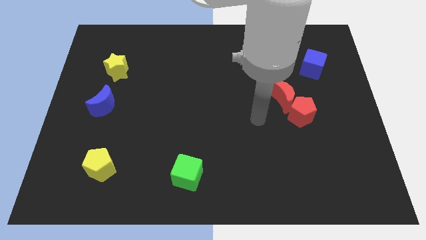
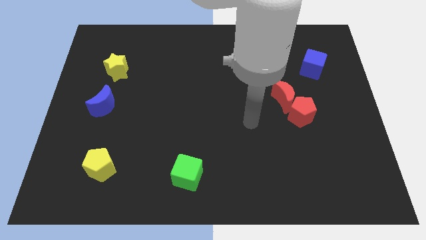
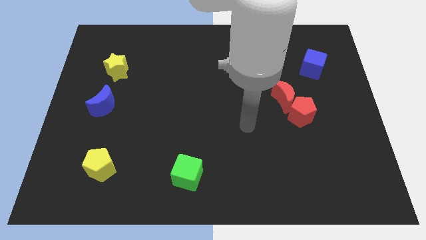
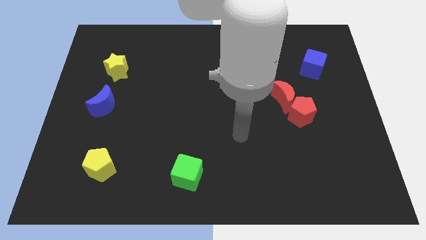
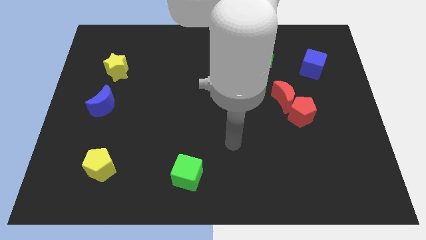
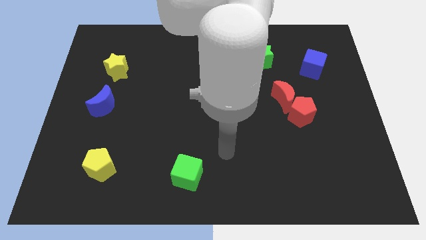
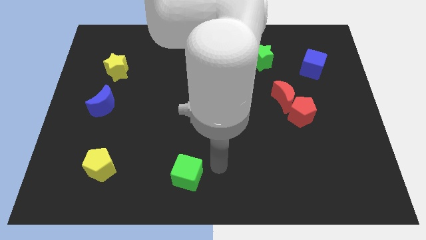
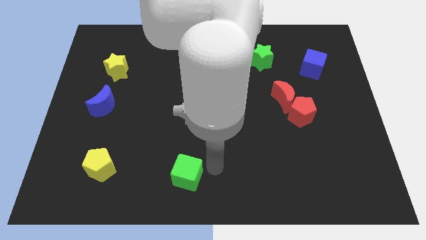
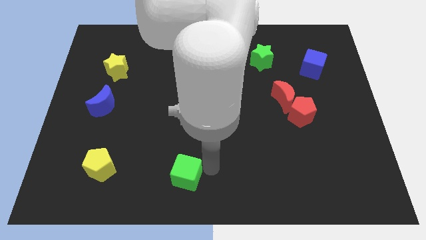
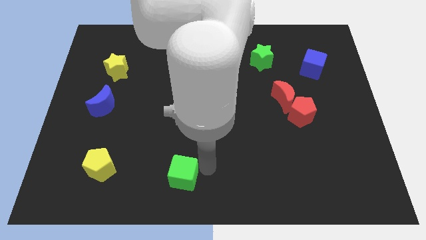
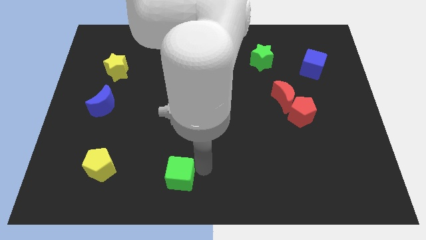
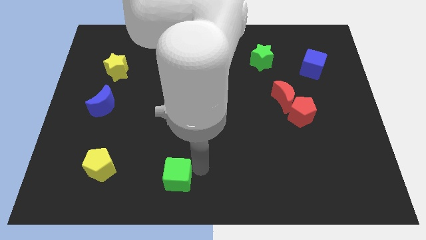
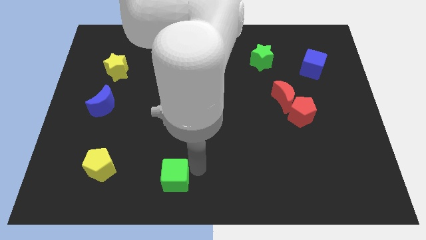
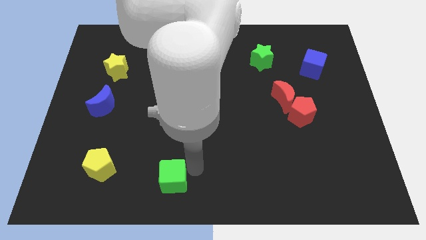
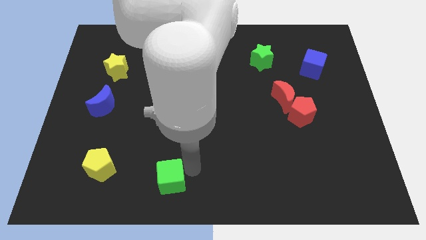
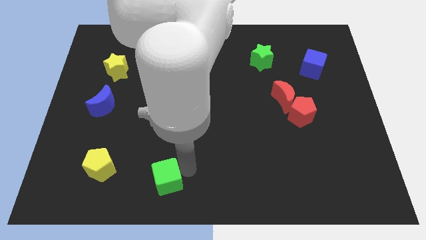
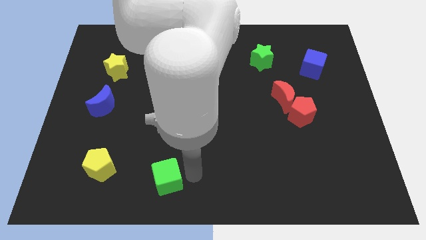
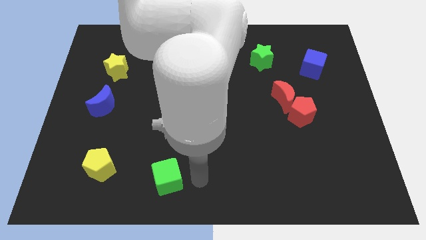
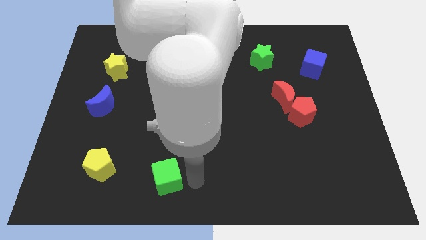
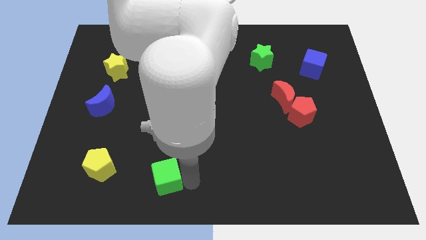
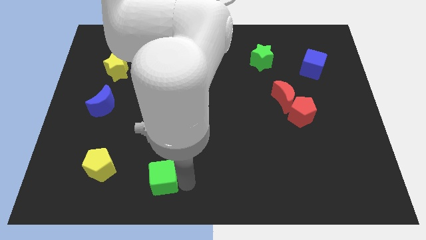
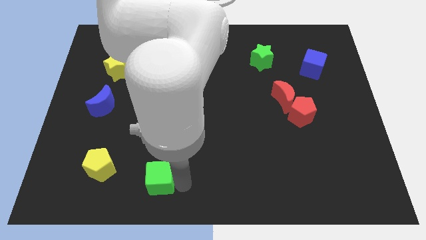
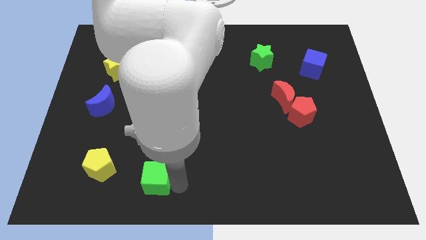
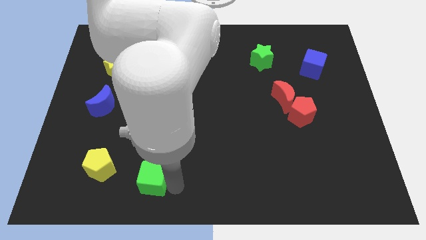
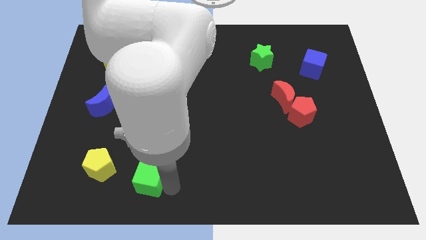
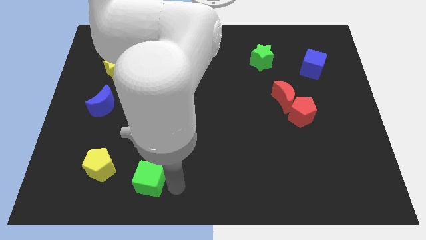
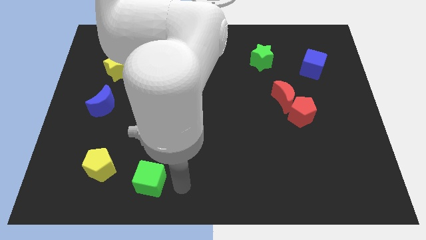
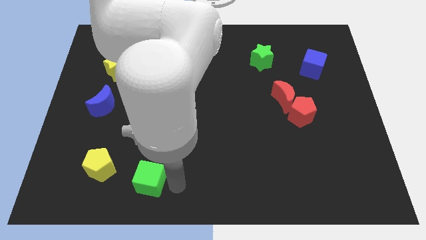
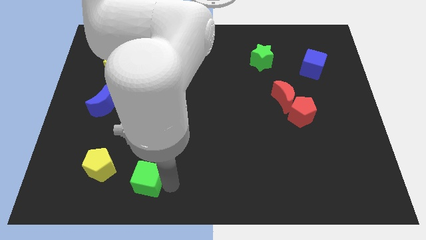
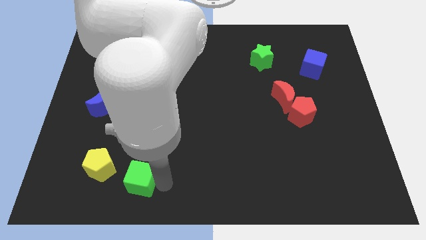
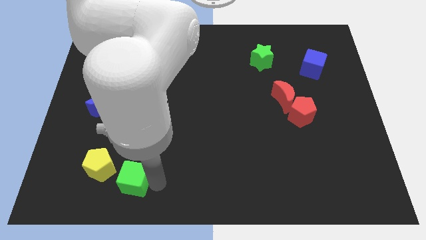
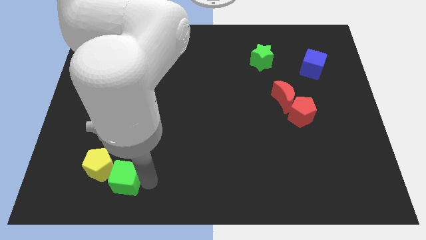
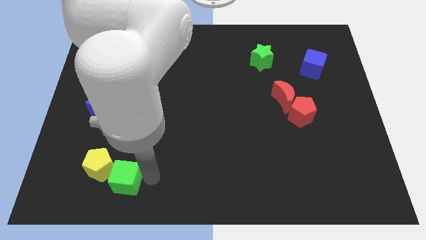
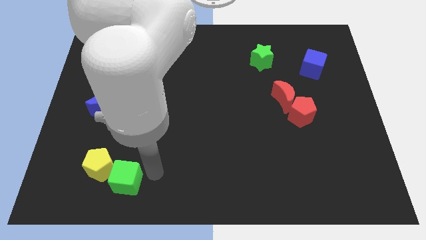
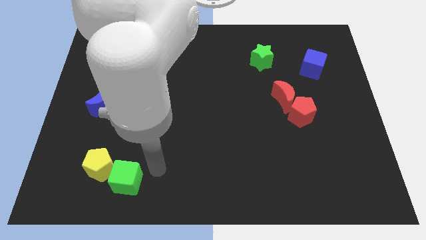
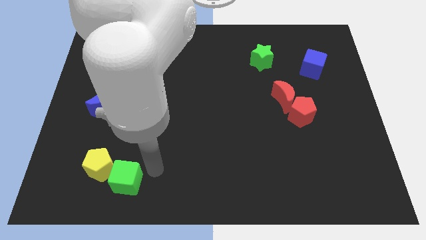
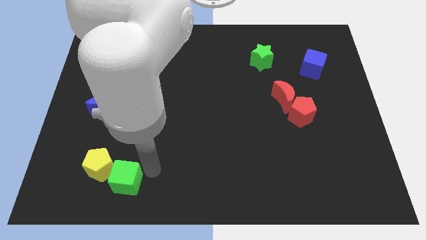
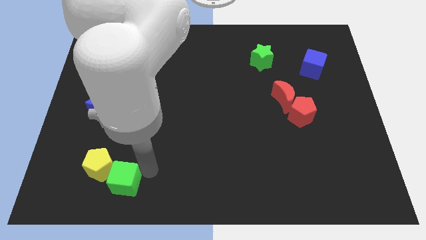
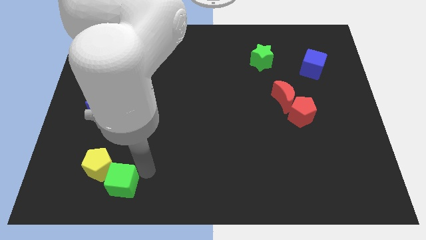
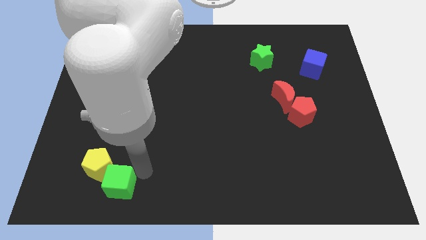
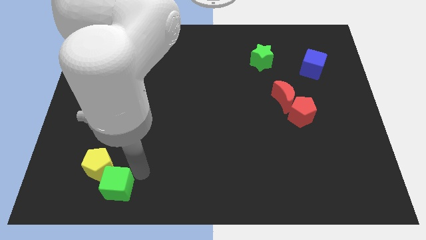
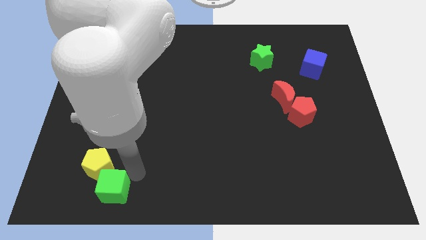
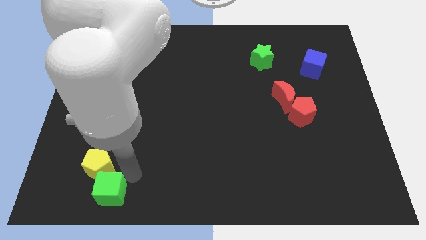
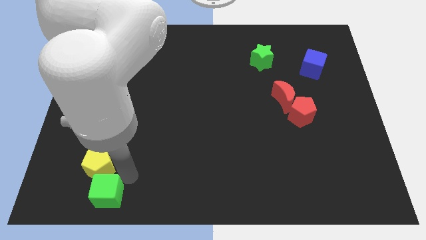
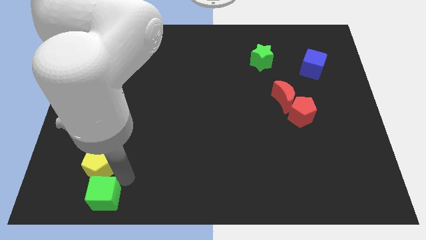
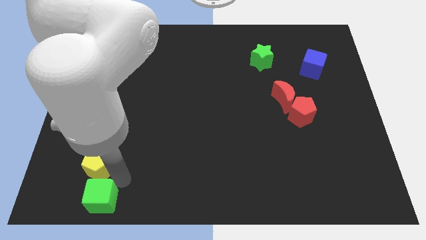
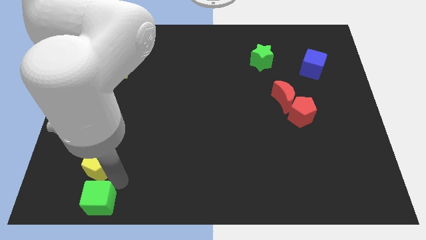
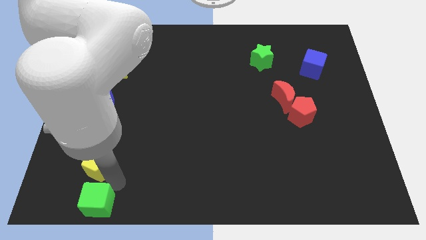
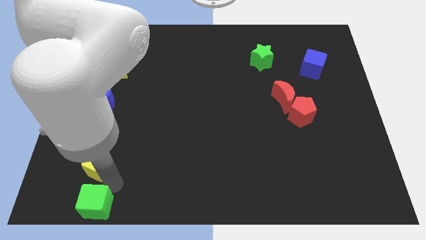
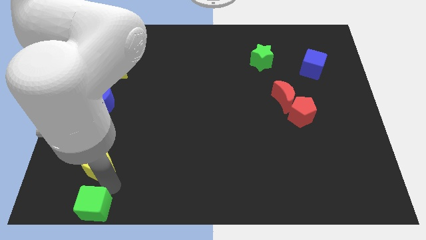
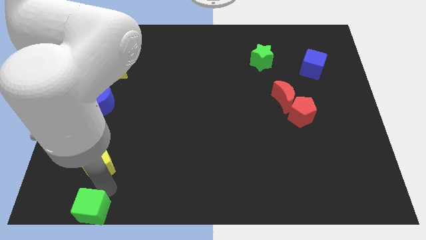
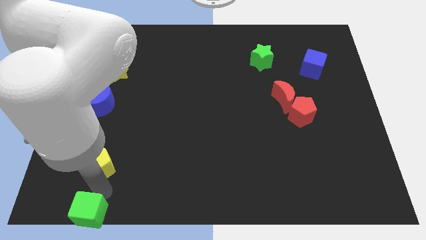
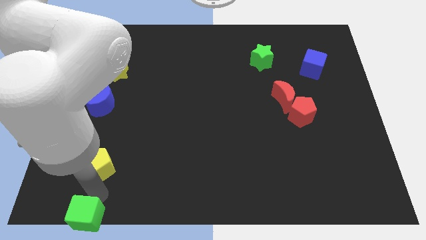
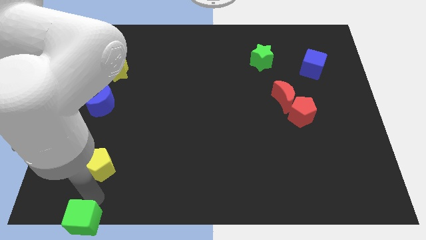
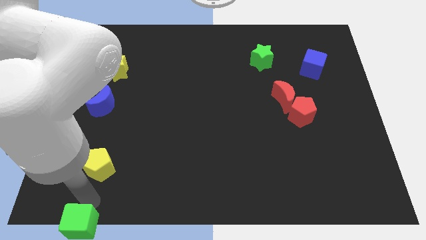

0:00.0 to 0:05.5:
move the green cube to the lower left corner

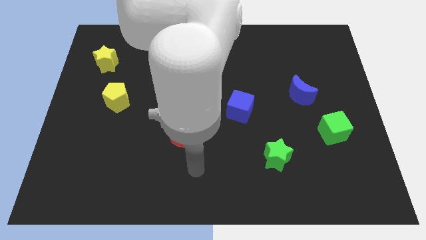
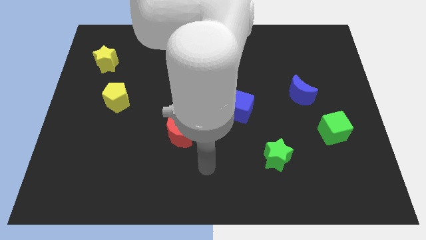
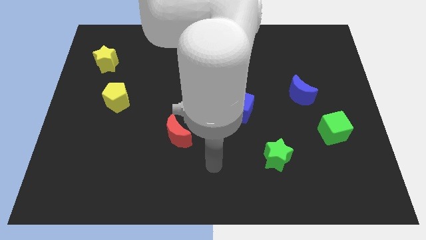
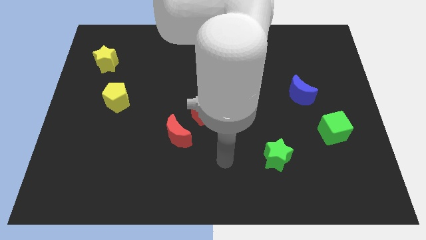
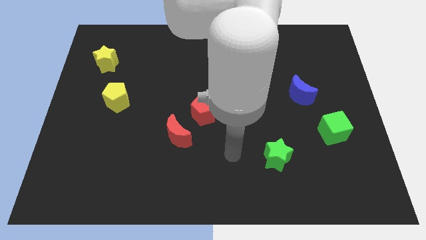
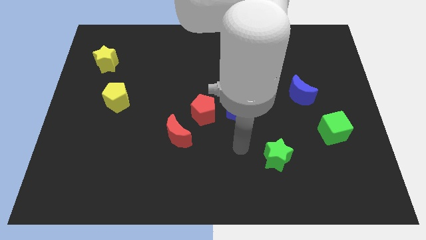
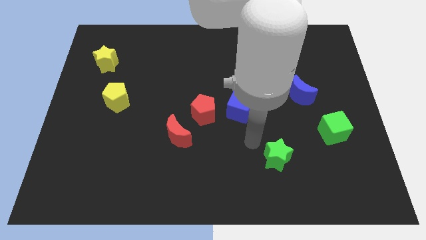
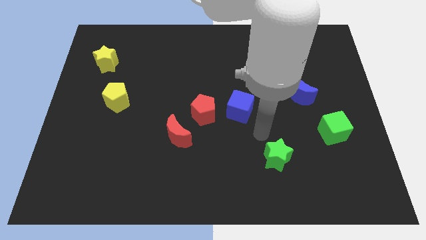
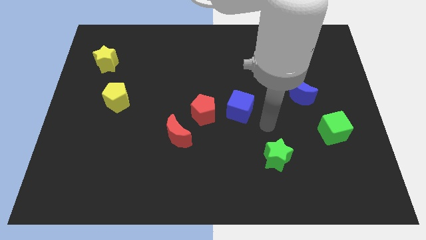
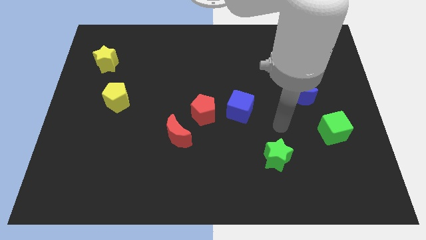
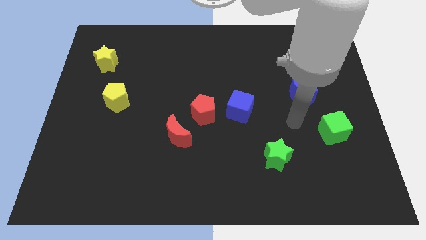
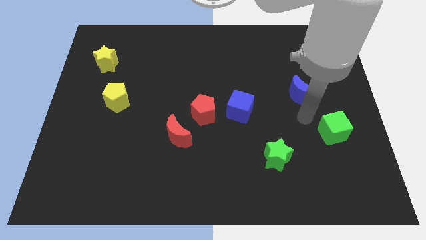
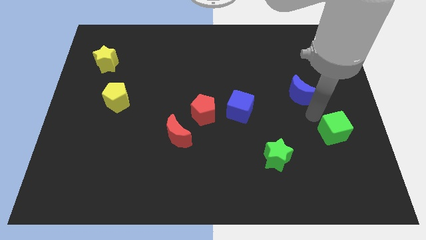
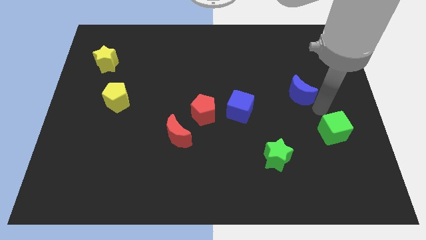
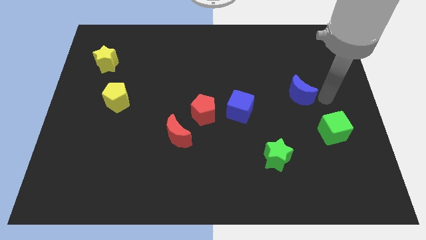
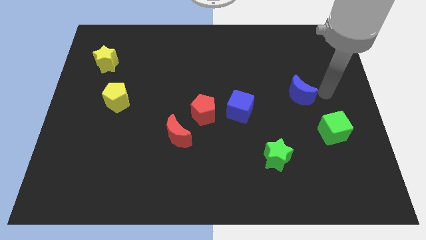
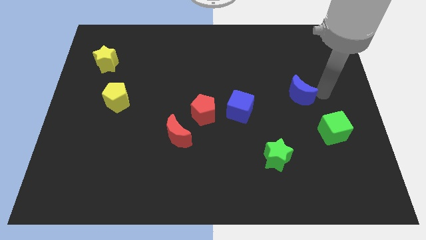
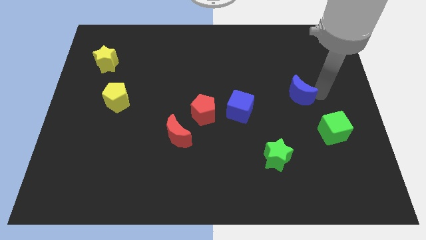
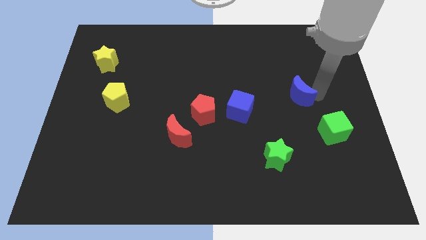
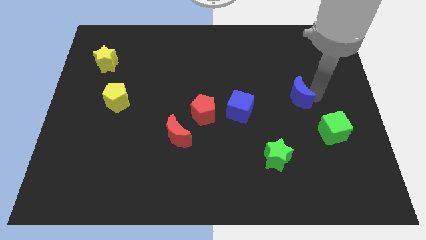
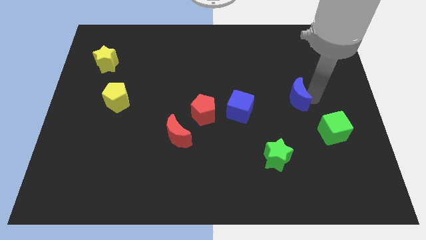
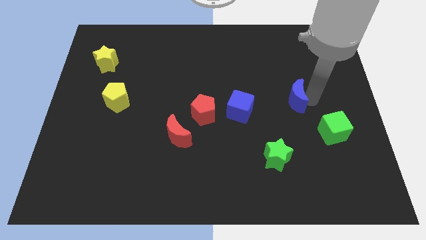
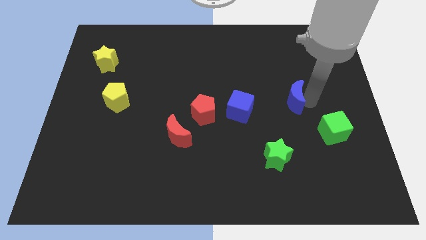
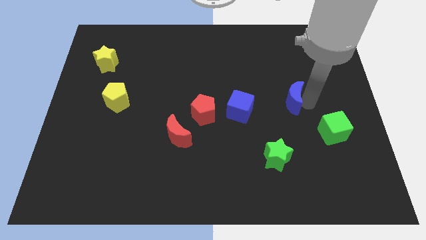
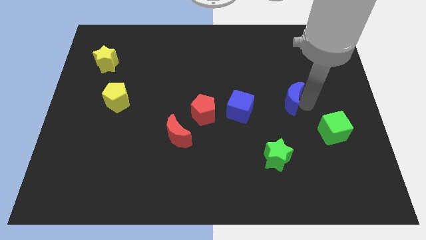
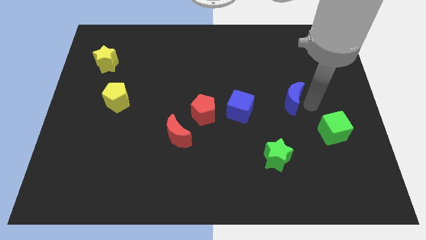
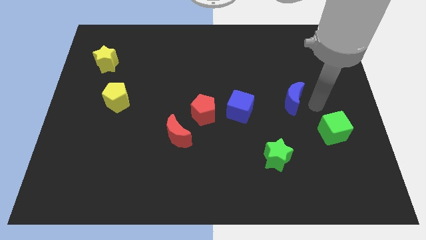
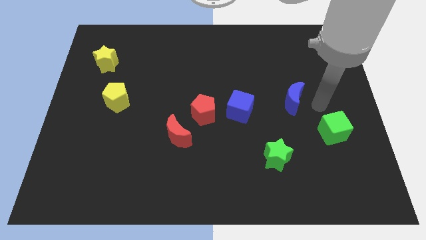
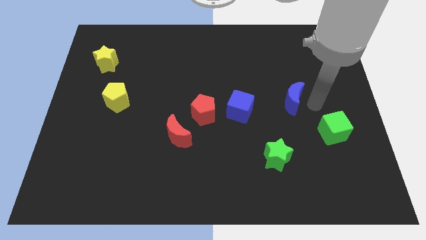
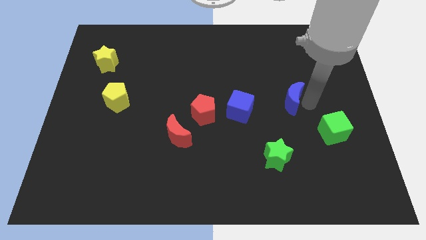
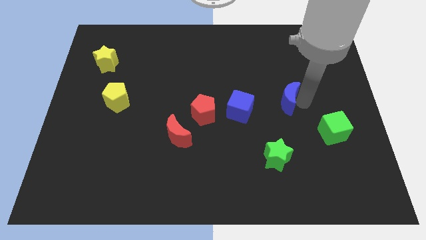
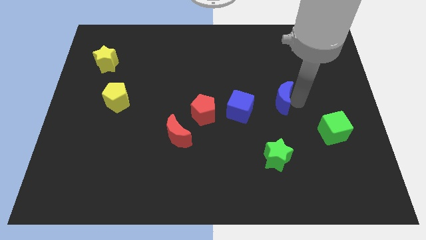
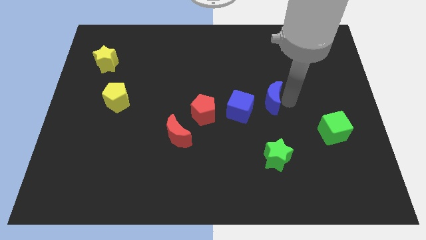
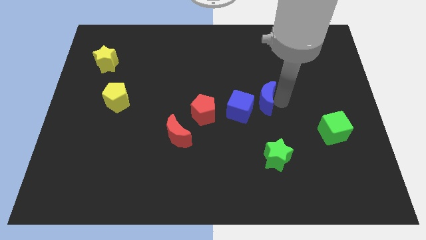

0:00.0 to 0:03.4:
slide the blue moon to the middle of the board
